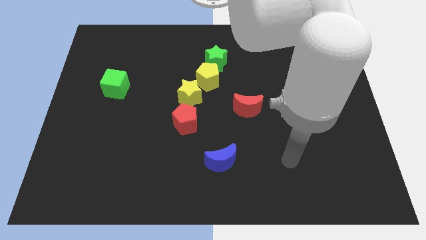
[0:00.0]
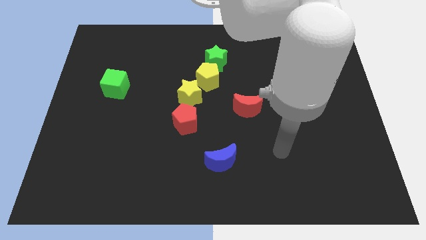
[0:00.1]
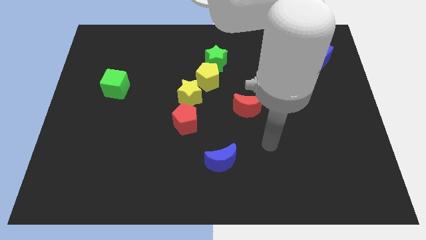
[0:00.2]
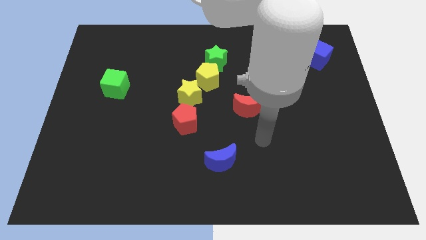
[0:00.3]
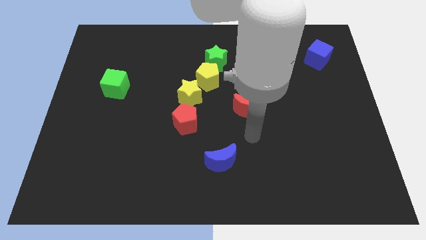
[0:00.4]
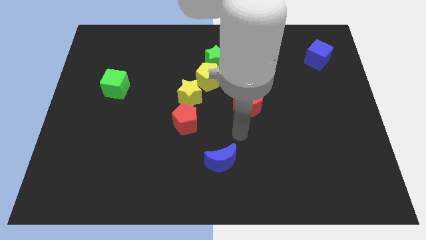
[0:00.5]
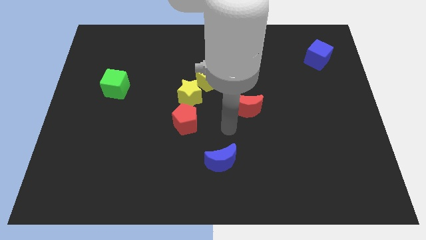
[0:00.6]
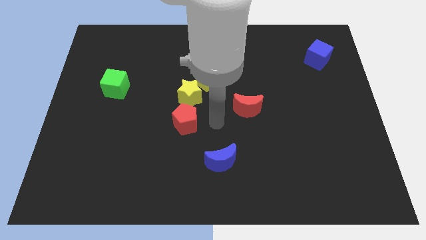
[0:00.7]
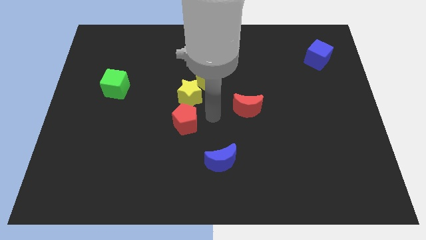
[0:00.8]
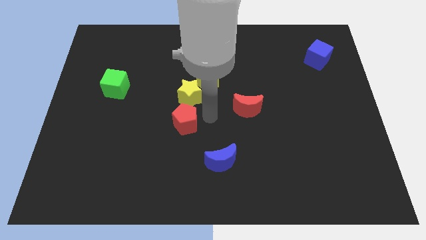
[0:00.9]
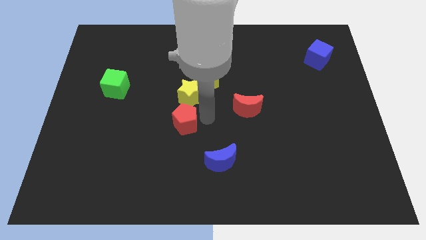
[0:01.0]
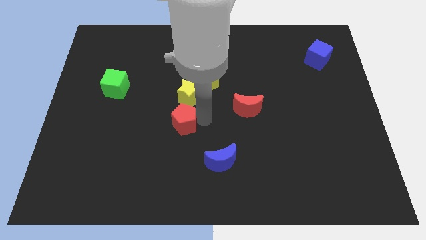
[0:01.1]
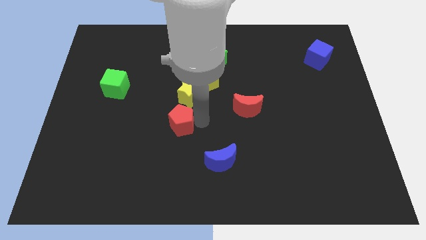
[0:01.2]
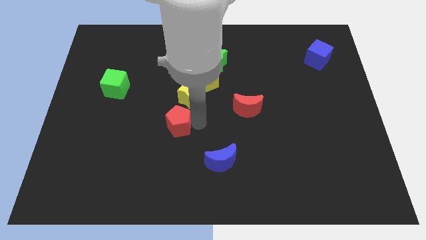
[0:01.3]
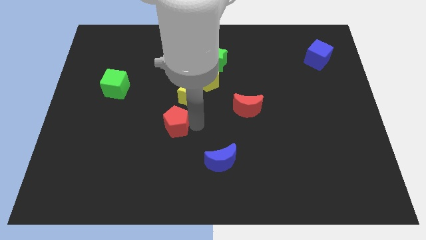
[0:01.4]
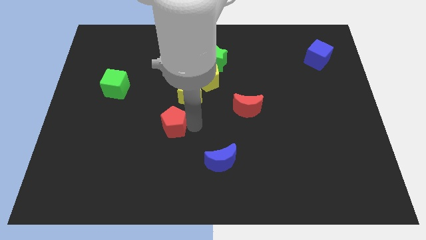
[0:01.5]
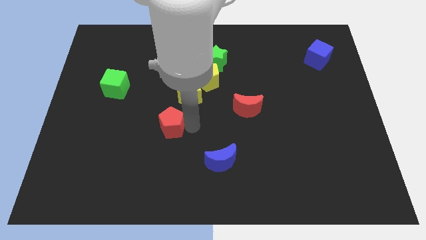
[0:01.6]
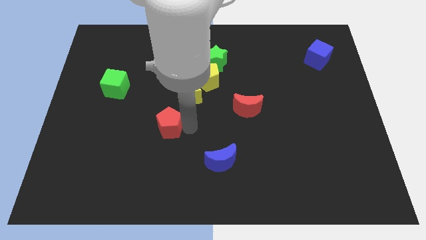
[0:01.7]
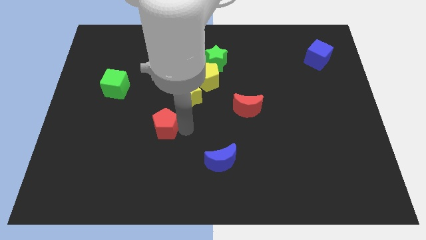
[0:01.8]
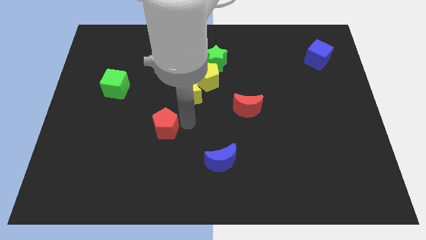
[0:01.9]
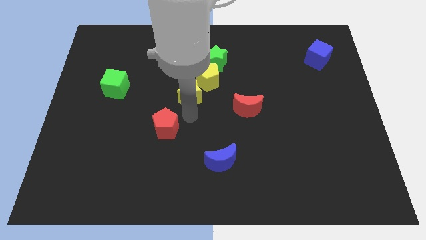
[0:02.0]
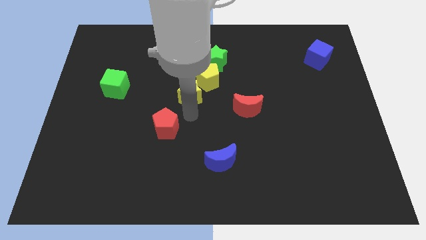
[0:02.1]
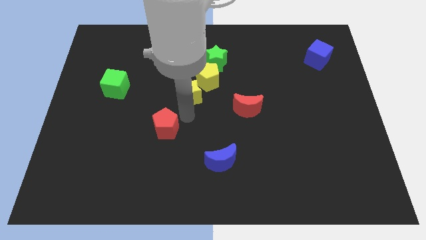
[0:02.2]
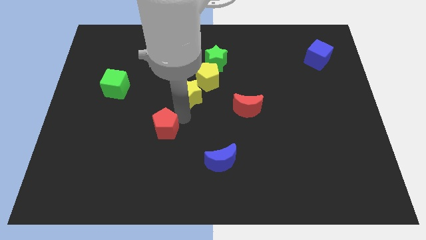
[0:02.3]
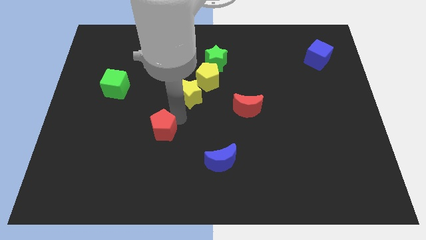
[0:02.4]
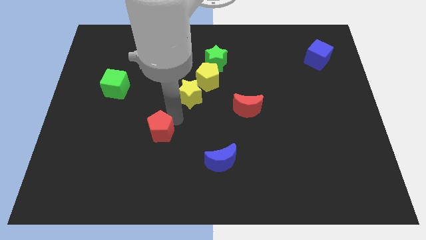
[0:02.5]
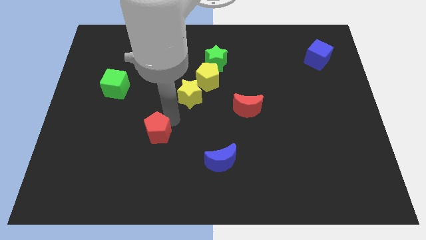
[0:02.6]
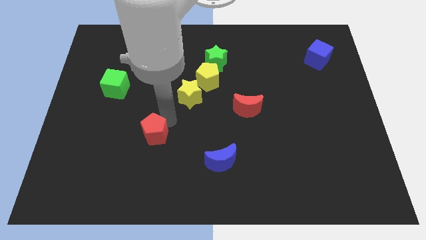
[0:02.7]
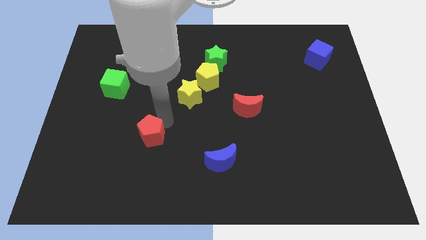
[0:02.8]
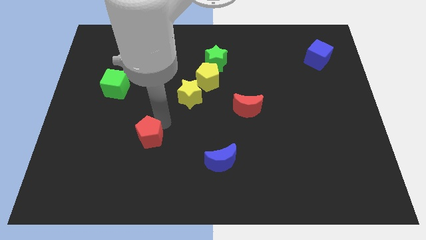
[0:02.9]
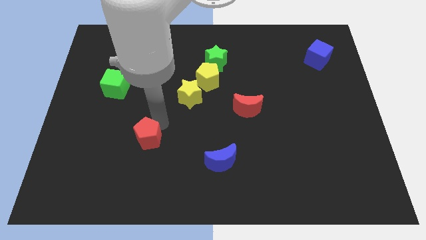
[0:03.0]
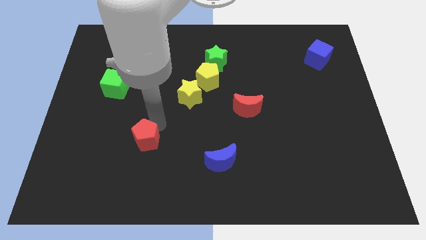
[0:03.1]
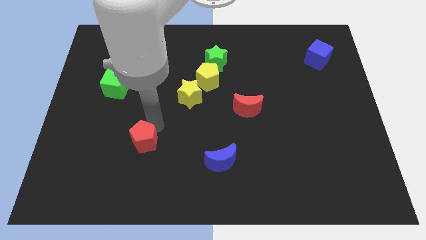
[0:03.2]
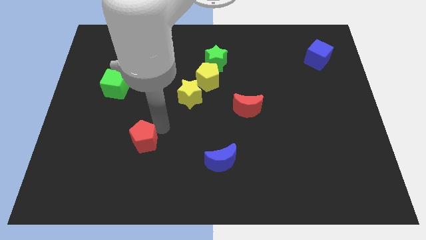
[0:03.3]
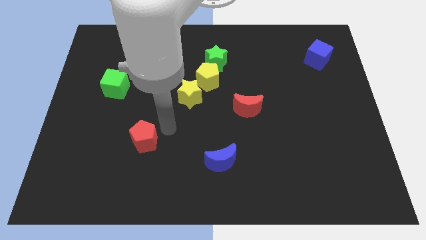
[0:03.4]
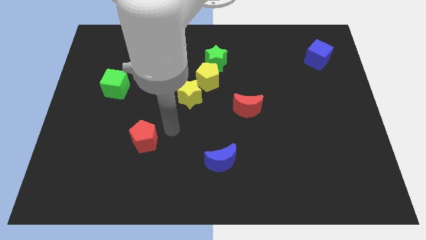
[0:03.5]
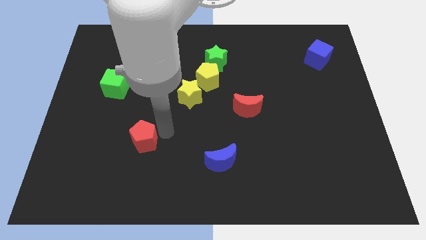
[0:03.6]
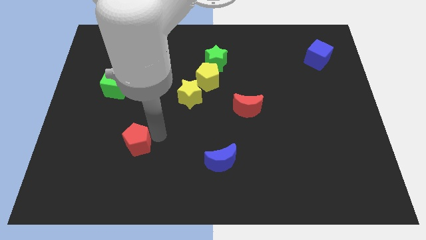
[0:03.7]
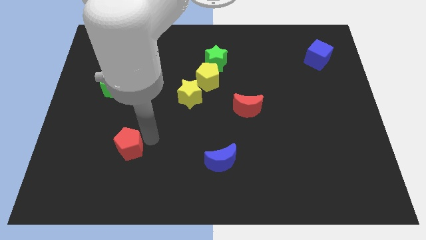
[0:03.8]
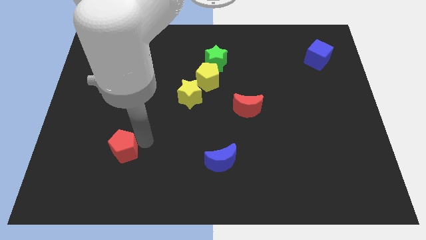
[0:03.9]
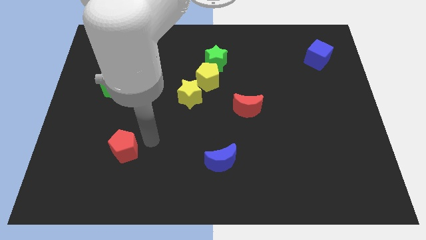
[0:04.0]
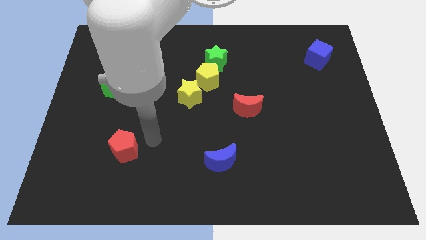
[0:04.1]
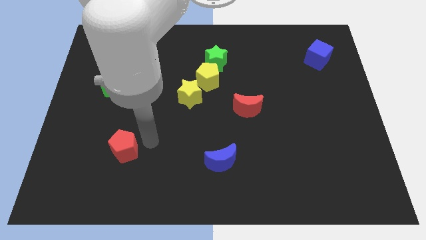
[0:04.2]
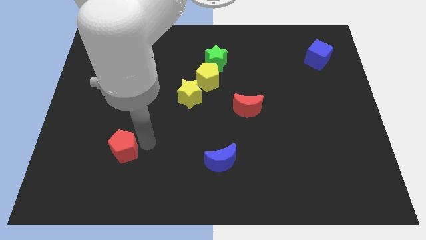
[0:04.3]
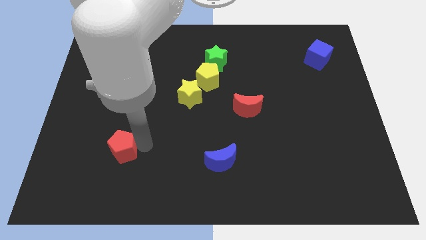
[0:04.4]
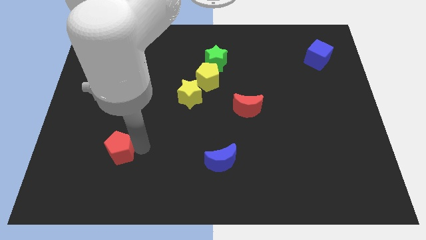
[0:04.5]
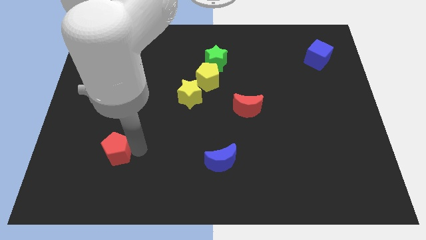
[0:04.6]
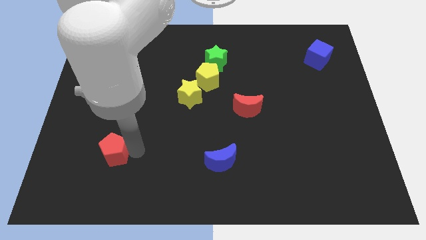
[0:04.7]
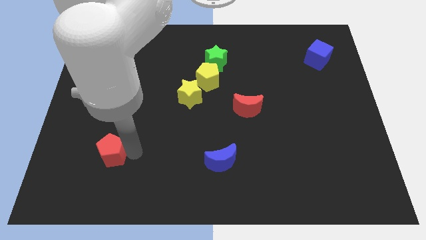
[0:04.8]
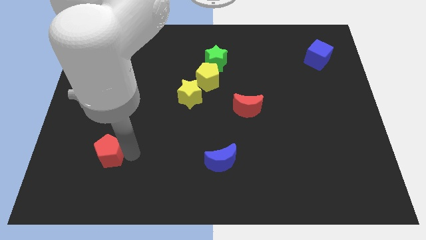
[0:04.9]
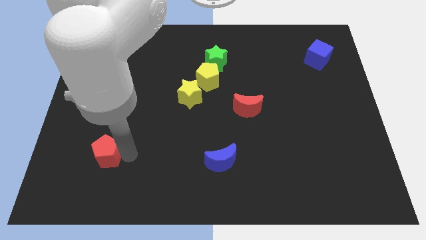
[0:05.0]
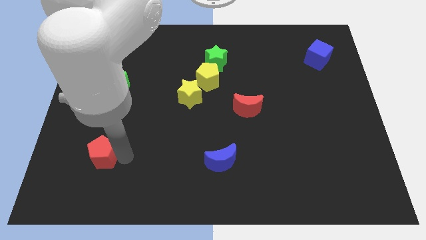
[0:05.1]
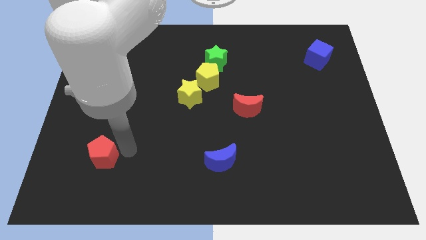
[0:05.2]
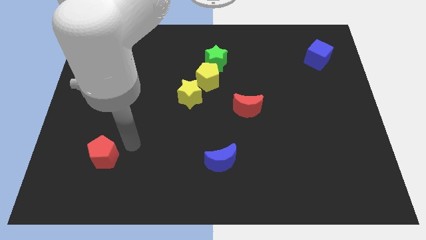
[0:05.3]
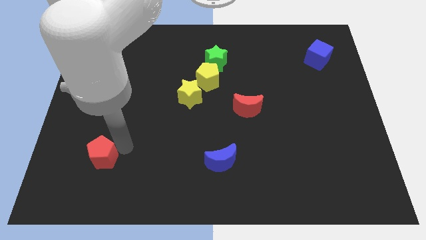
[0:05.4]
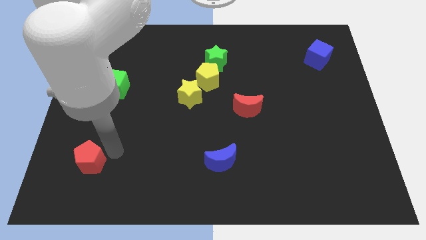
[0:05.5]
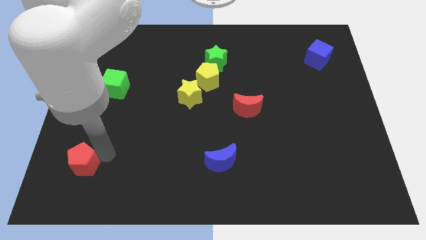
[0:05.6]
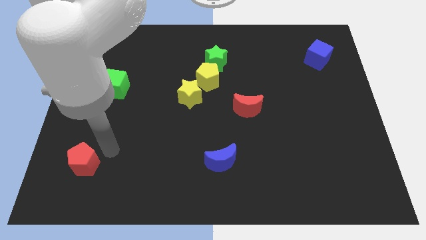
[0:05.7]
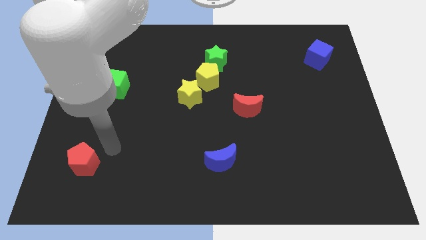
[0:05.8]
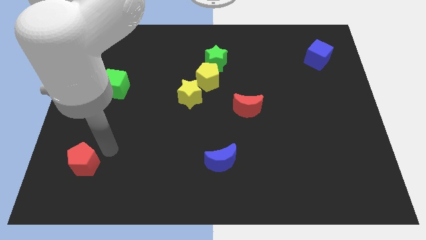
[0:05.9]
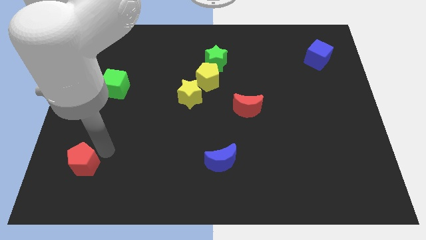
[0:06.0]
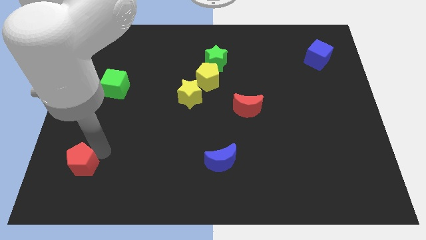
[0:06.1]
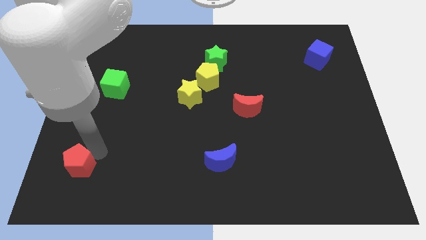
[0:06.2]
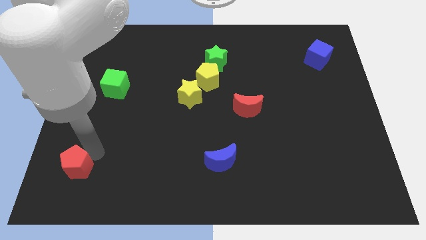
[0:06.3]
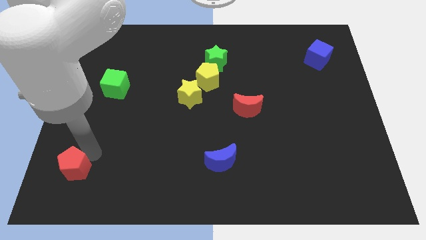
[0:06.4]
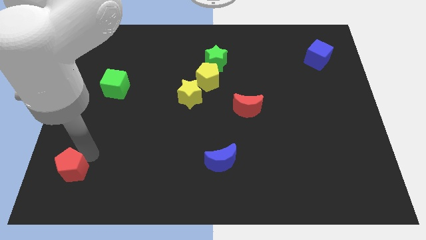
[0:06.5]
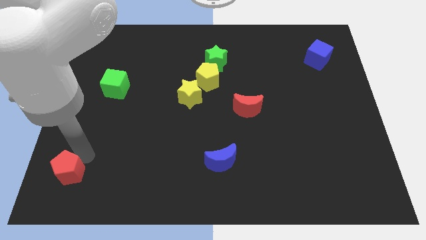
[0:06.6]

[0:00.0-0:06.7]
put the red pentagon to the bottom left

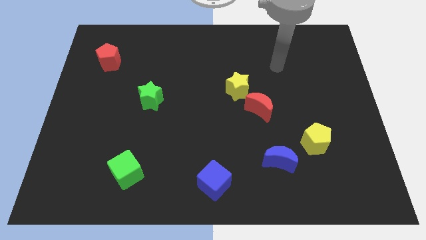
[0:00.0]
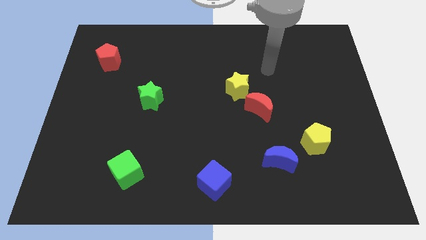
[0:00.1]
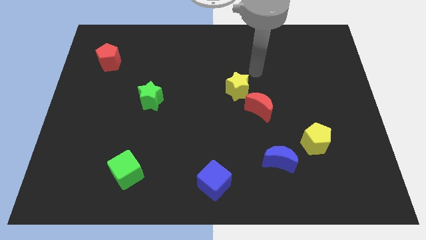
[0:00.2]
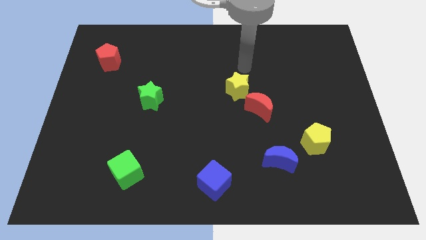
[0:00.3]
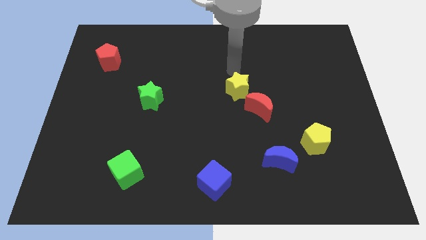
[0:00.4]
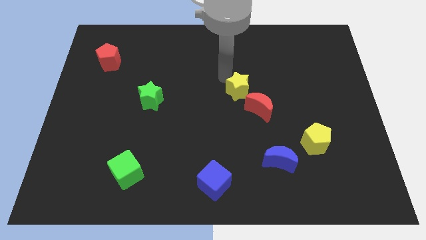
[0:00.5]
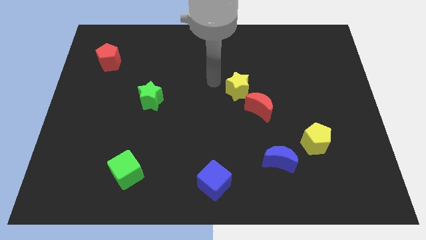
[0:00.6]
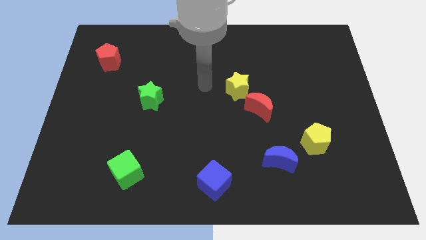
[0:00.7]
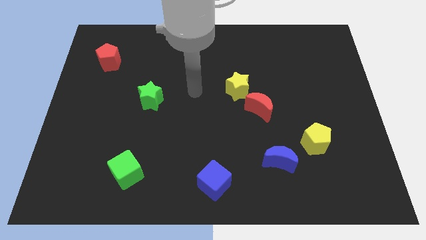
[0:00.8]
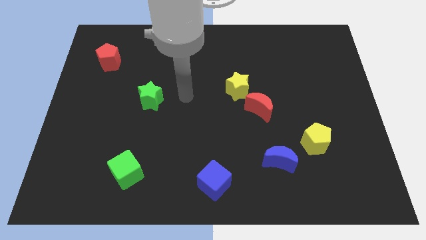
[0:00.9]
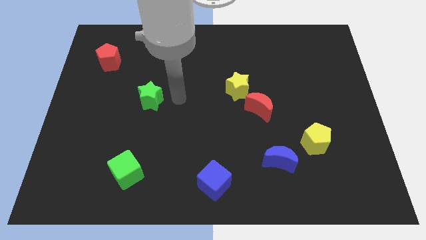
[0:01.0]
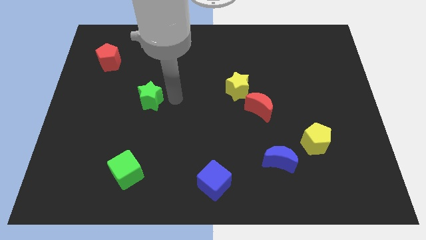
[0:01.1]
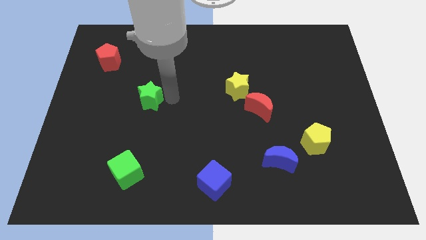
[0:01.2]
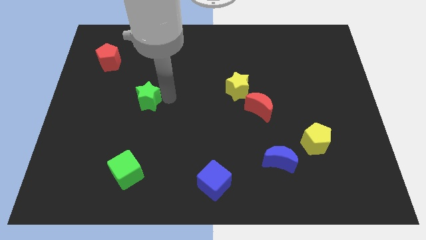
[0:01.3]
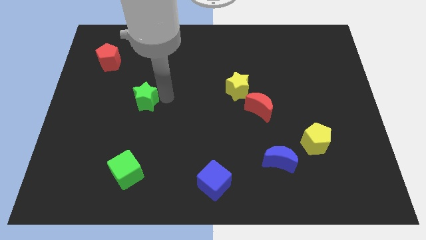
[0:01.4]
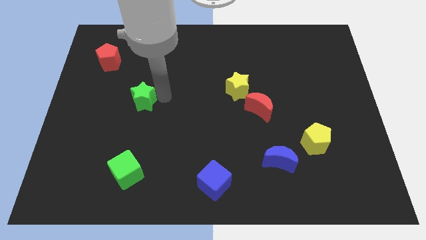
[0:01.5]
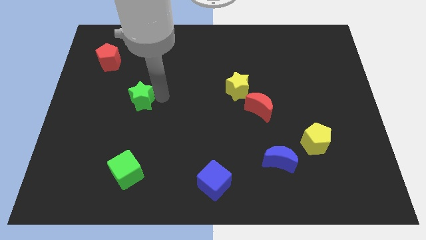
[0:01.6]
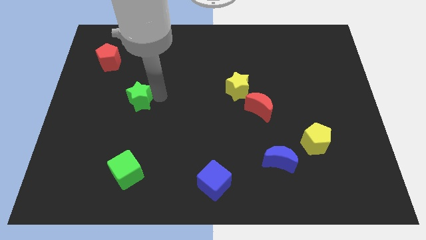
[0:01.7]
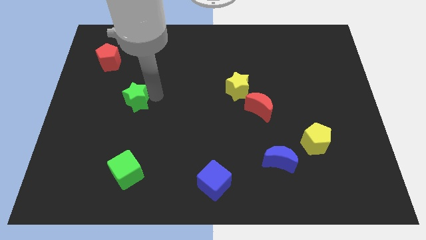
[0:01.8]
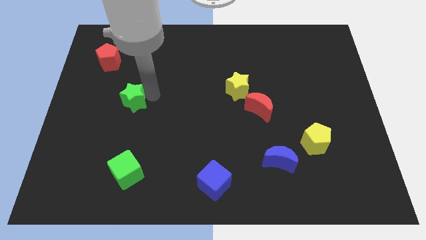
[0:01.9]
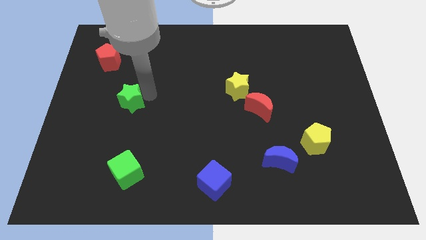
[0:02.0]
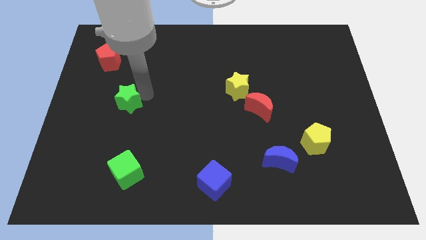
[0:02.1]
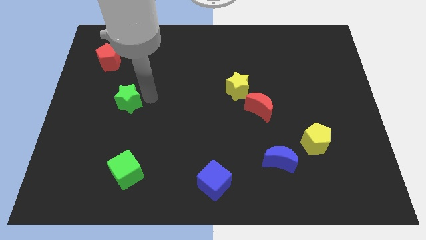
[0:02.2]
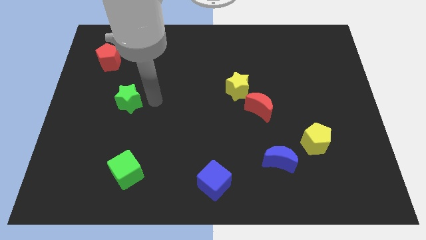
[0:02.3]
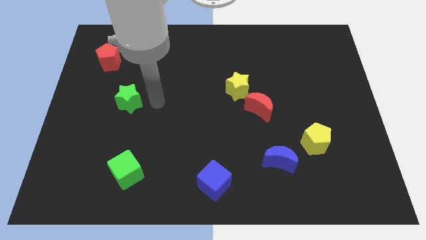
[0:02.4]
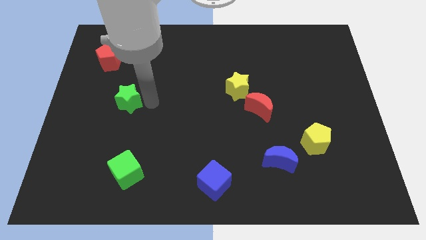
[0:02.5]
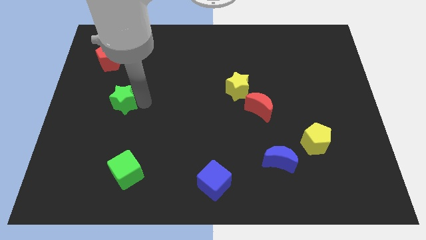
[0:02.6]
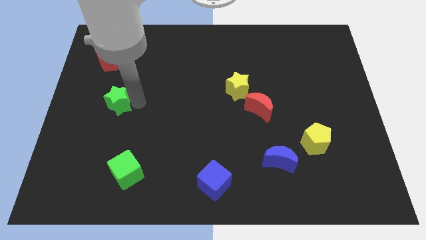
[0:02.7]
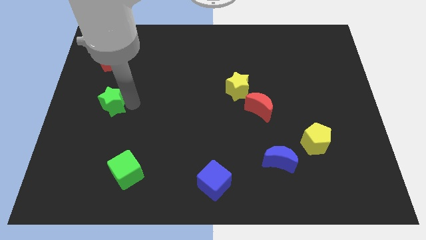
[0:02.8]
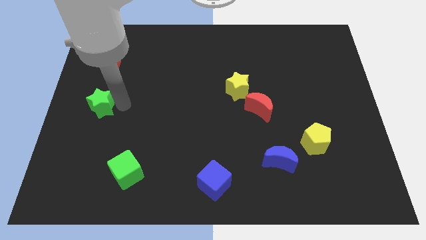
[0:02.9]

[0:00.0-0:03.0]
push the green star to the left side of the board
